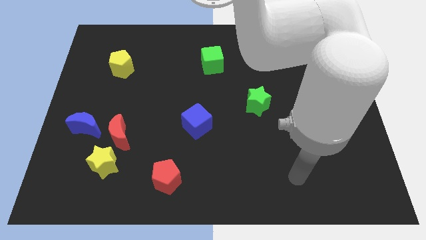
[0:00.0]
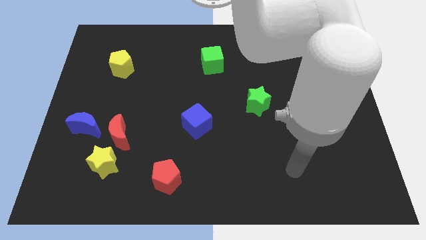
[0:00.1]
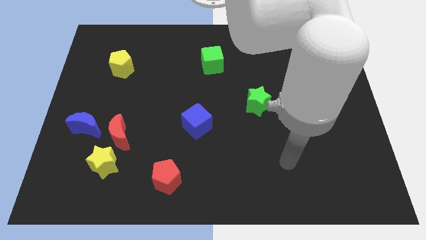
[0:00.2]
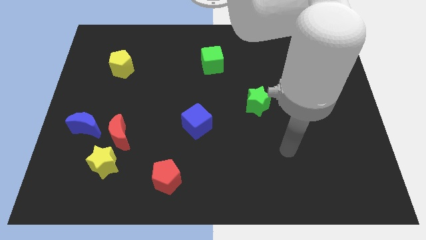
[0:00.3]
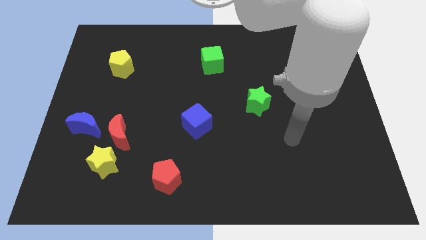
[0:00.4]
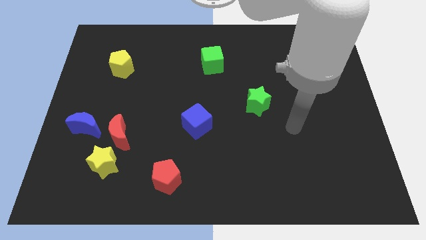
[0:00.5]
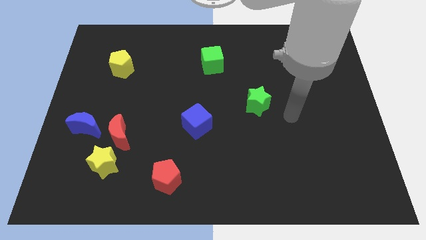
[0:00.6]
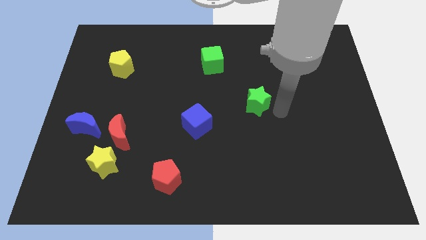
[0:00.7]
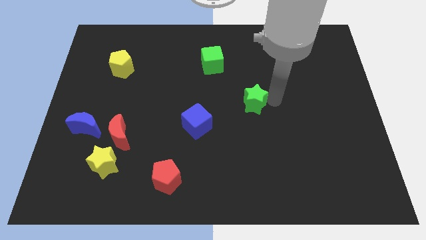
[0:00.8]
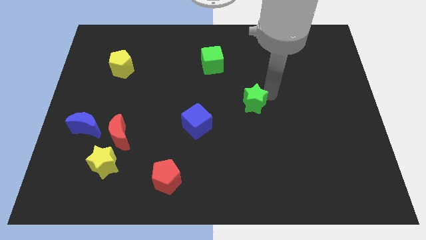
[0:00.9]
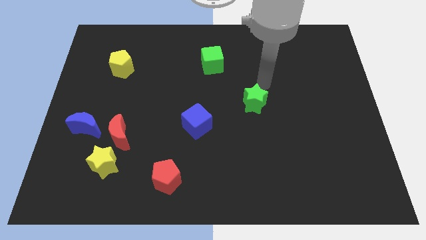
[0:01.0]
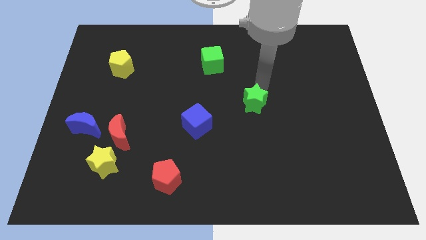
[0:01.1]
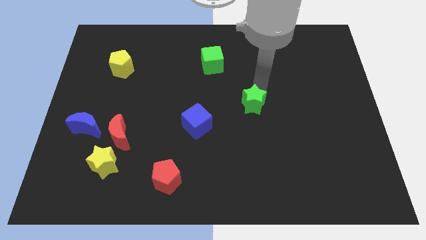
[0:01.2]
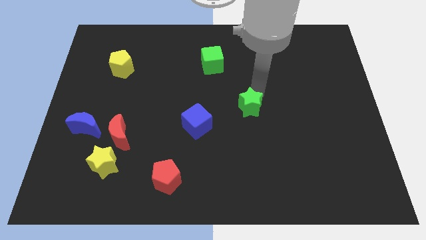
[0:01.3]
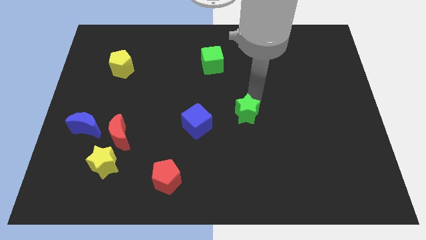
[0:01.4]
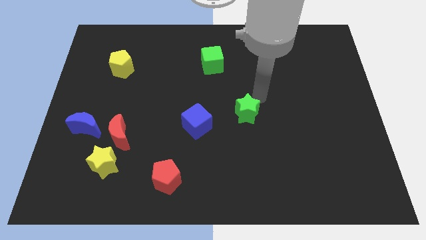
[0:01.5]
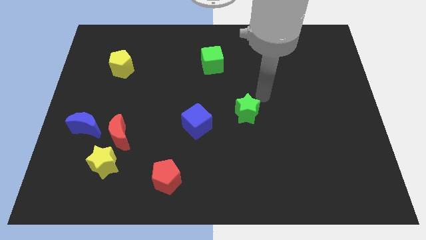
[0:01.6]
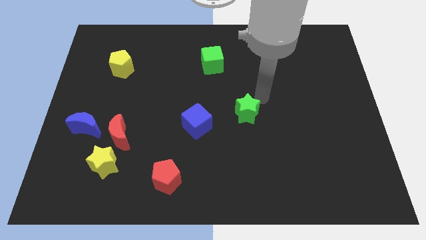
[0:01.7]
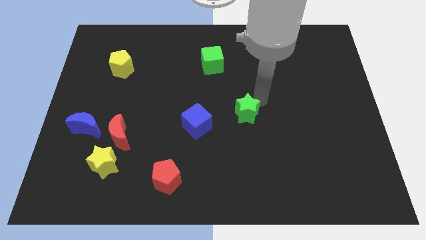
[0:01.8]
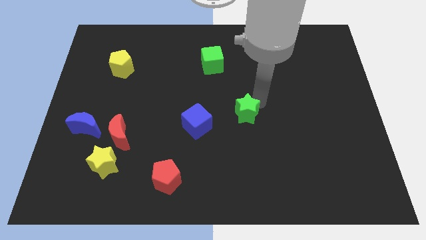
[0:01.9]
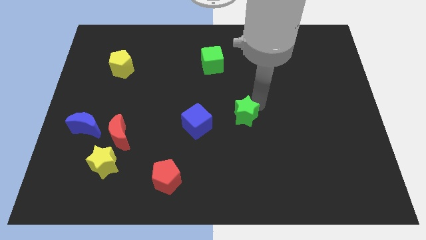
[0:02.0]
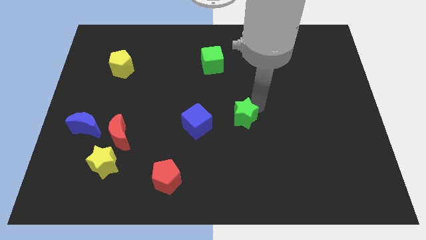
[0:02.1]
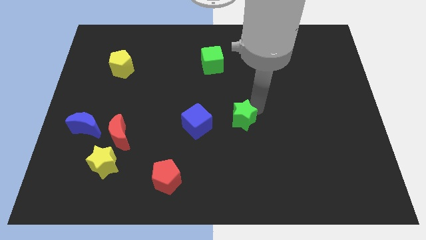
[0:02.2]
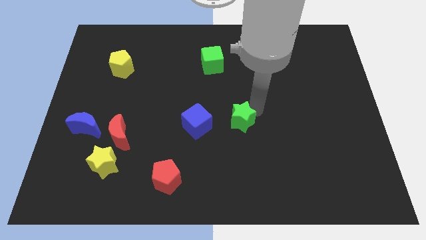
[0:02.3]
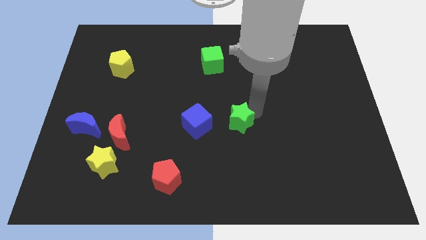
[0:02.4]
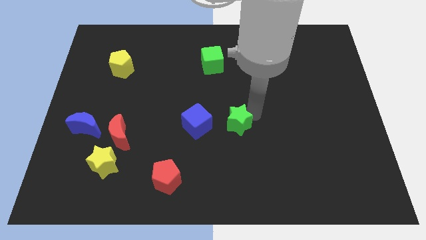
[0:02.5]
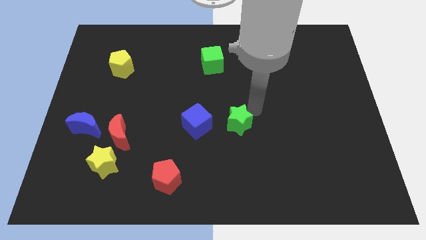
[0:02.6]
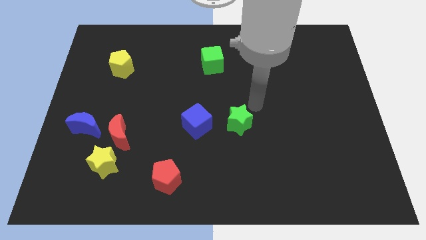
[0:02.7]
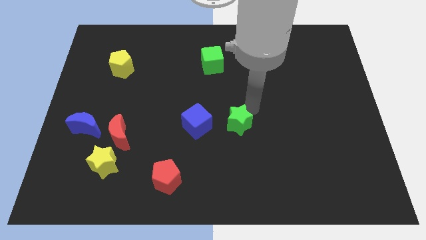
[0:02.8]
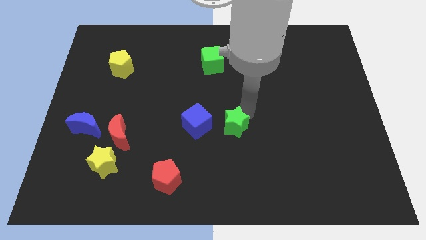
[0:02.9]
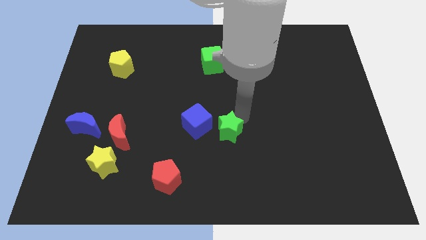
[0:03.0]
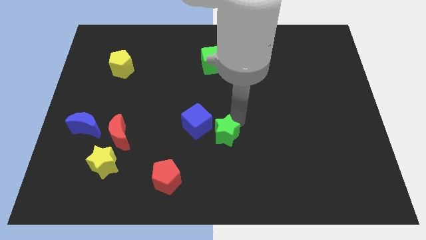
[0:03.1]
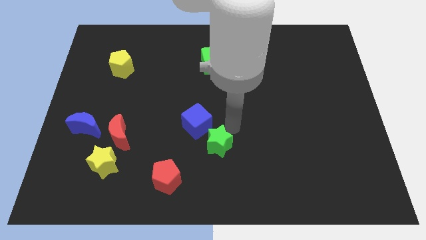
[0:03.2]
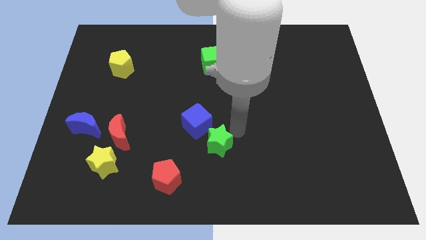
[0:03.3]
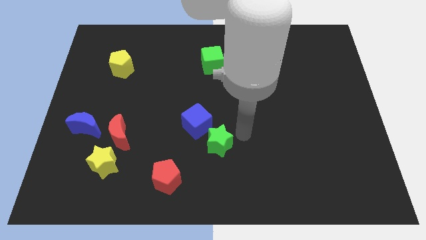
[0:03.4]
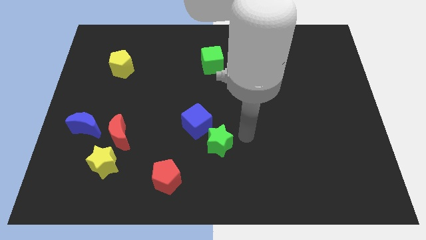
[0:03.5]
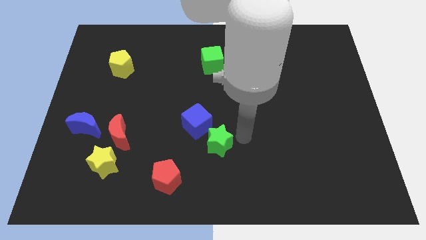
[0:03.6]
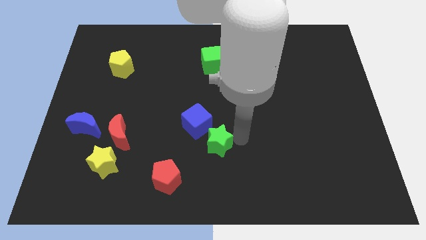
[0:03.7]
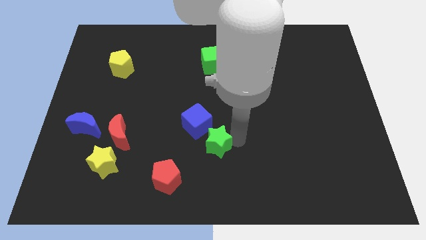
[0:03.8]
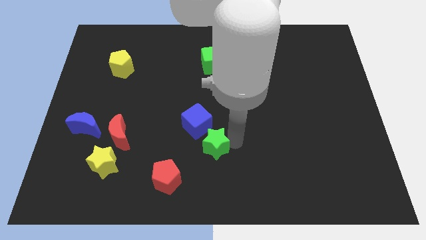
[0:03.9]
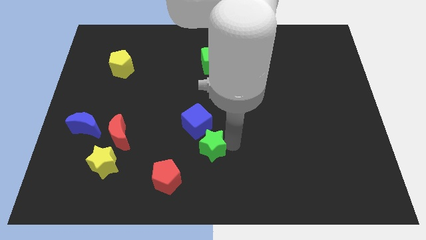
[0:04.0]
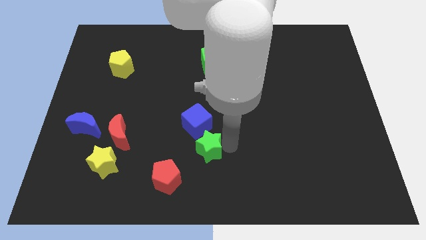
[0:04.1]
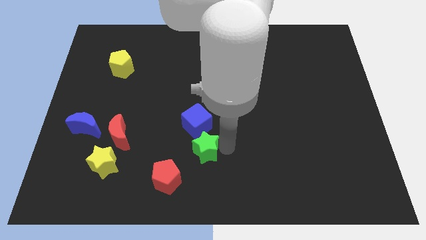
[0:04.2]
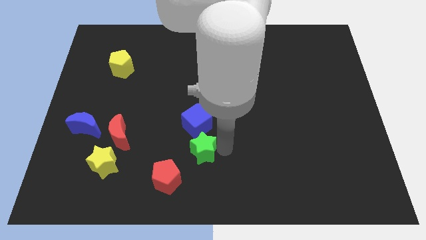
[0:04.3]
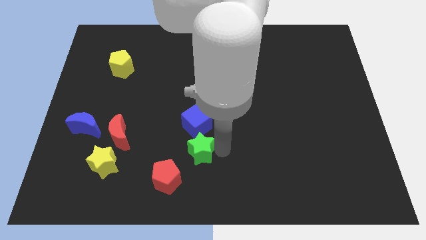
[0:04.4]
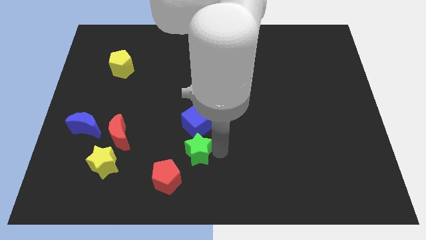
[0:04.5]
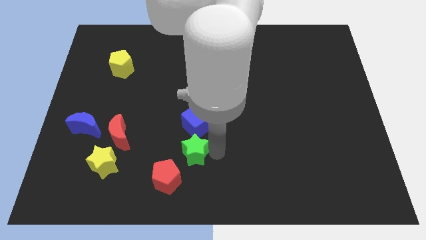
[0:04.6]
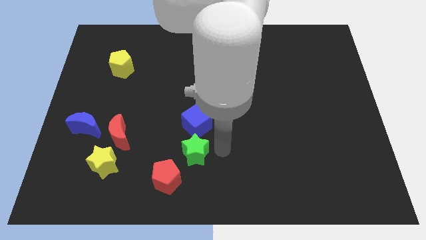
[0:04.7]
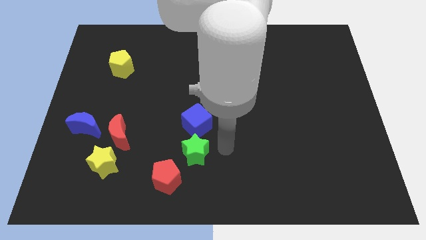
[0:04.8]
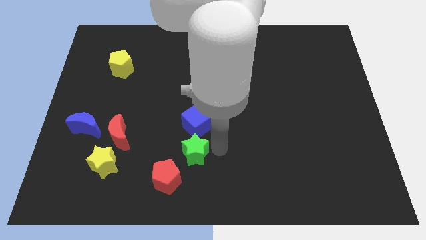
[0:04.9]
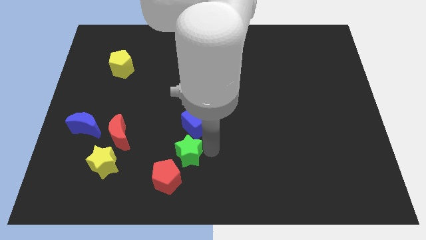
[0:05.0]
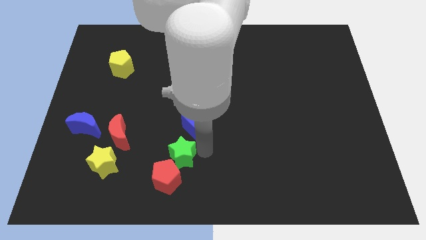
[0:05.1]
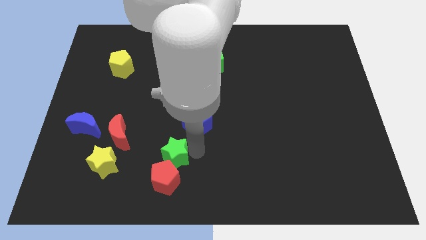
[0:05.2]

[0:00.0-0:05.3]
move the green star to the right side of the yellow star

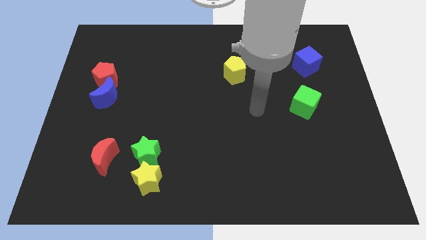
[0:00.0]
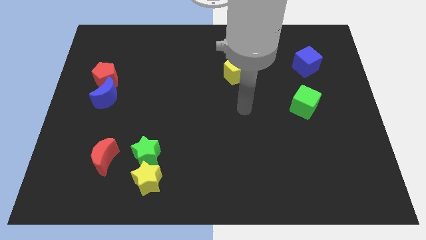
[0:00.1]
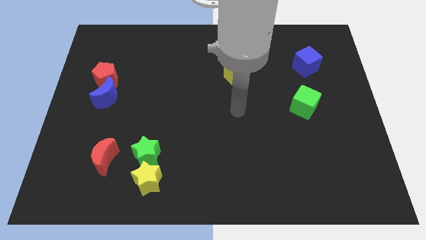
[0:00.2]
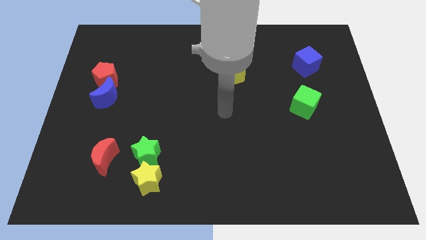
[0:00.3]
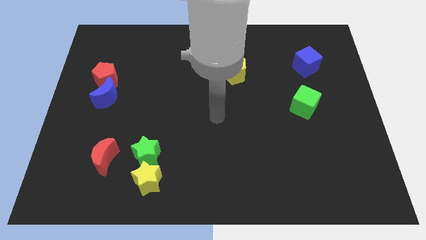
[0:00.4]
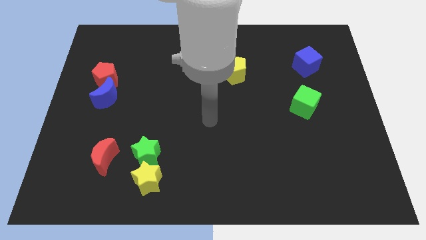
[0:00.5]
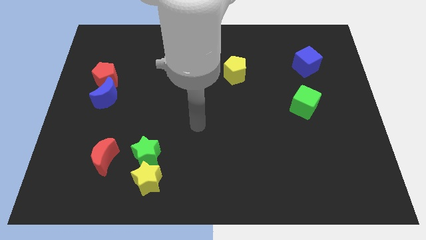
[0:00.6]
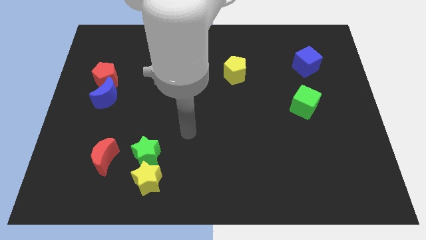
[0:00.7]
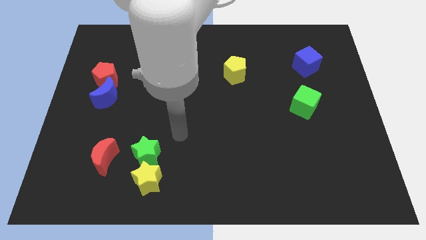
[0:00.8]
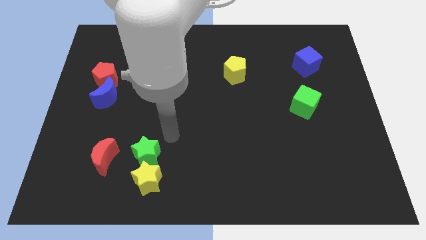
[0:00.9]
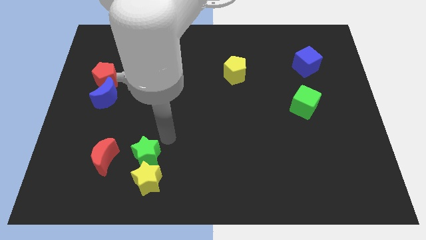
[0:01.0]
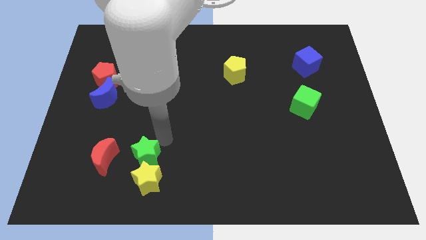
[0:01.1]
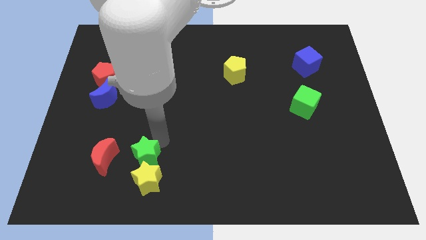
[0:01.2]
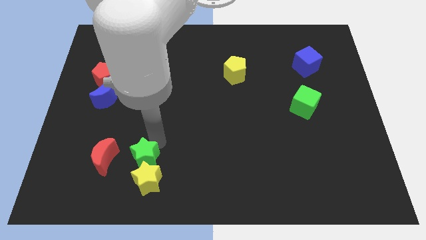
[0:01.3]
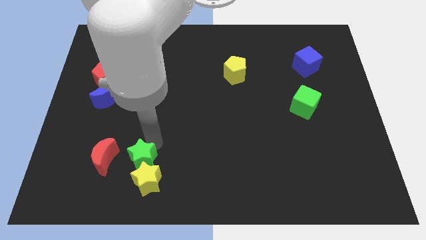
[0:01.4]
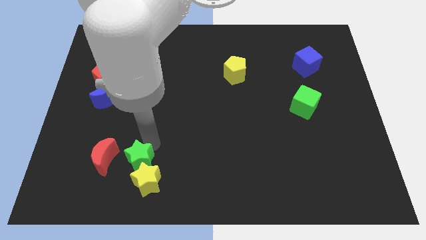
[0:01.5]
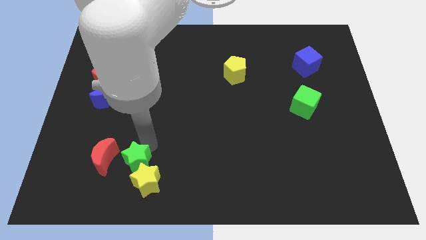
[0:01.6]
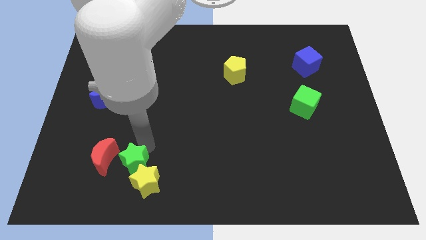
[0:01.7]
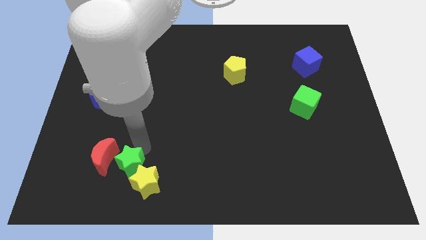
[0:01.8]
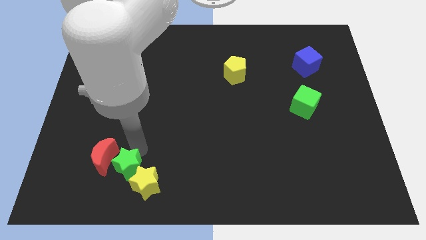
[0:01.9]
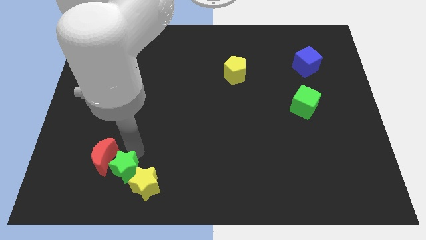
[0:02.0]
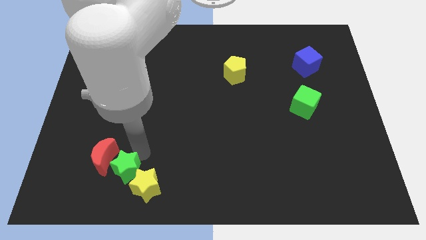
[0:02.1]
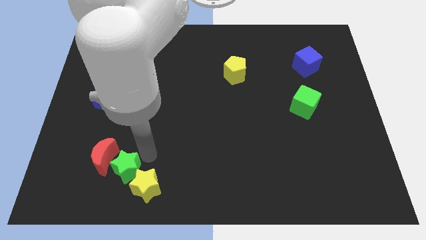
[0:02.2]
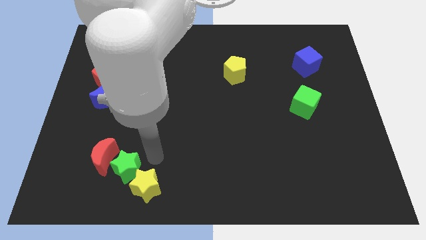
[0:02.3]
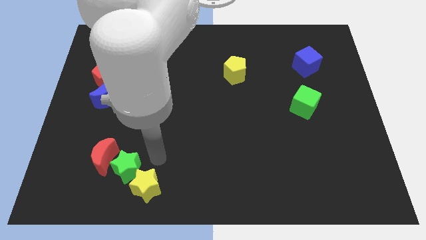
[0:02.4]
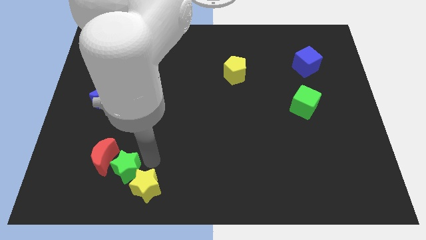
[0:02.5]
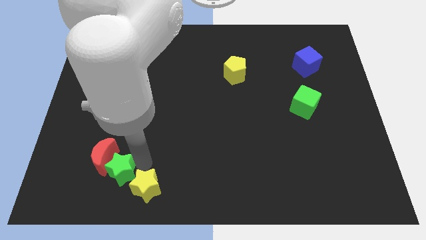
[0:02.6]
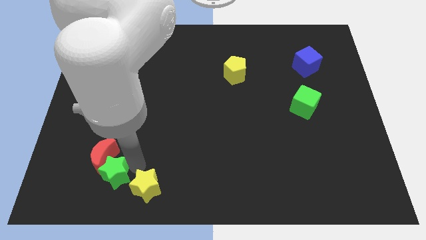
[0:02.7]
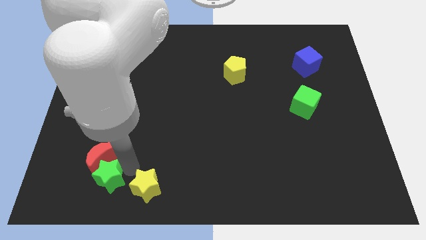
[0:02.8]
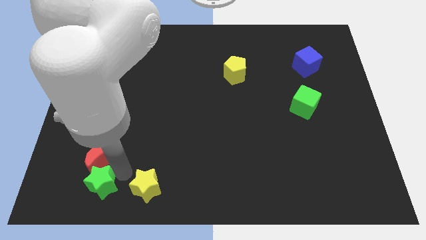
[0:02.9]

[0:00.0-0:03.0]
move the green star to the bottom left of the red moon
